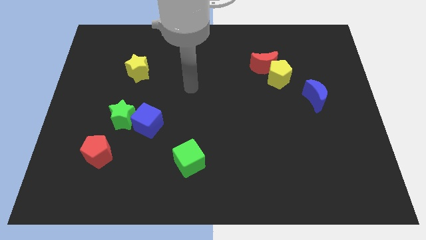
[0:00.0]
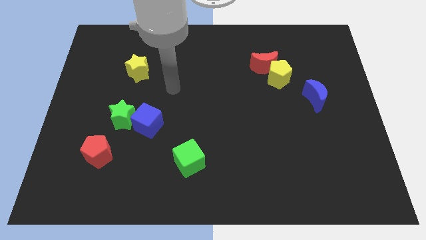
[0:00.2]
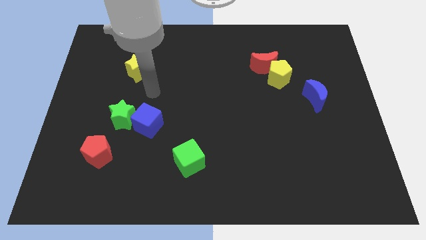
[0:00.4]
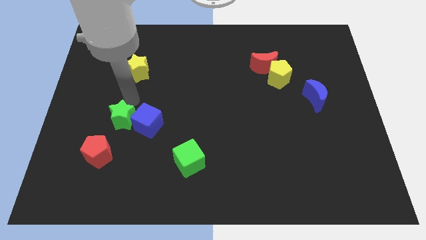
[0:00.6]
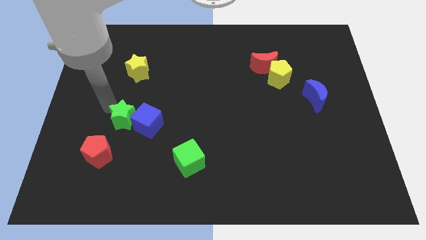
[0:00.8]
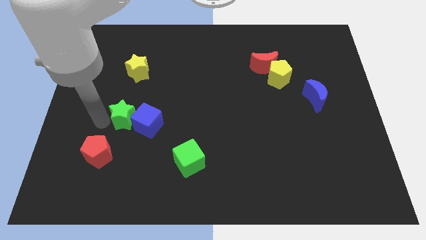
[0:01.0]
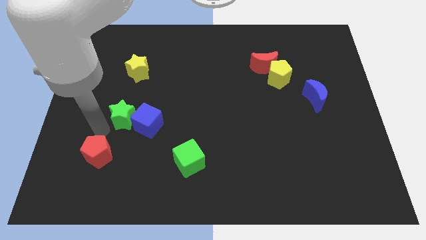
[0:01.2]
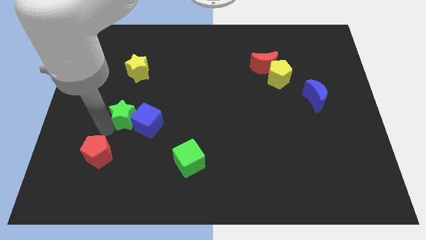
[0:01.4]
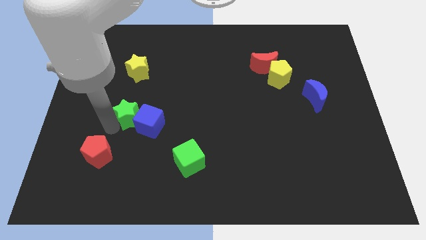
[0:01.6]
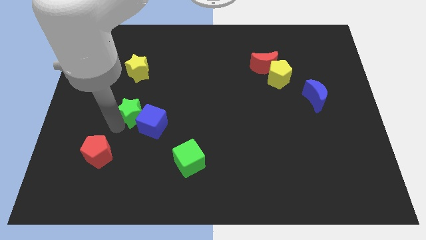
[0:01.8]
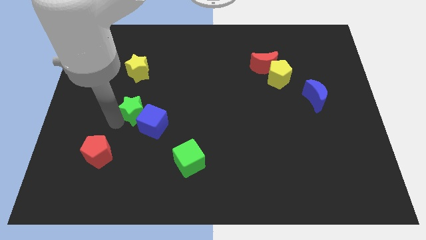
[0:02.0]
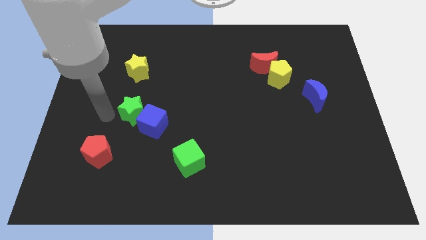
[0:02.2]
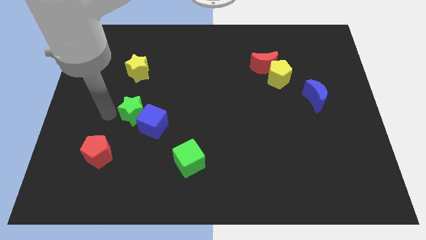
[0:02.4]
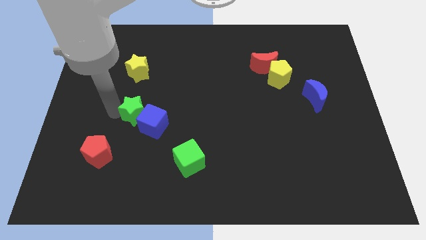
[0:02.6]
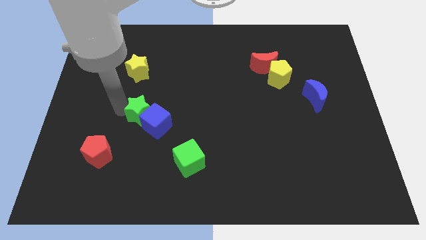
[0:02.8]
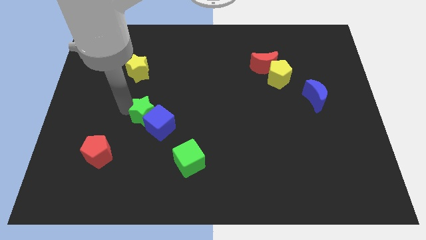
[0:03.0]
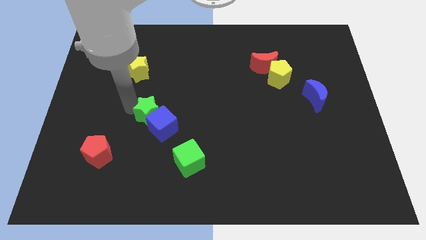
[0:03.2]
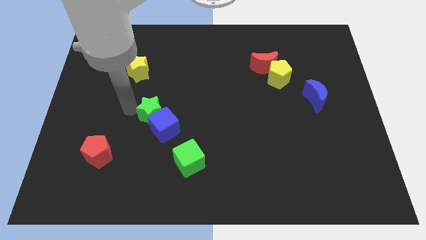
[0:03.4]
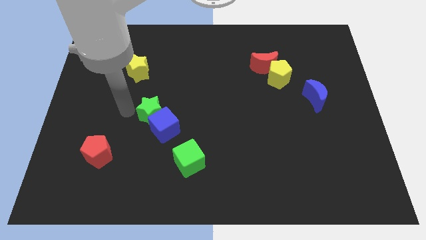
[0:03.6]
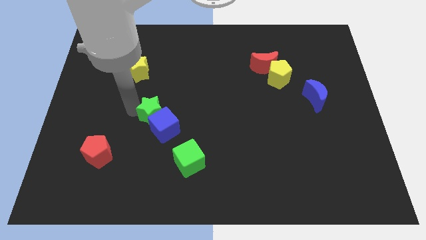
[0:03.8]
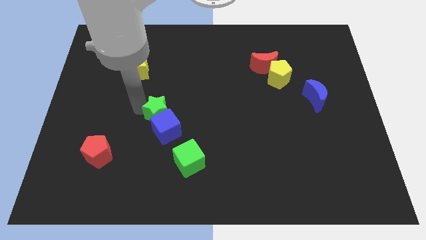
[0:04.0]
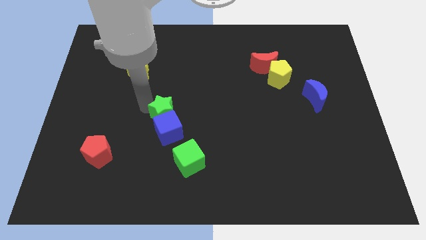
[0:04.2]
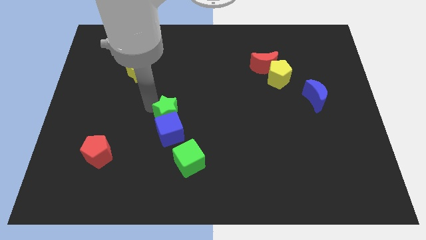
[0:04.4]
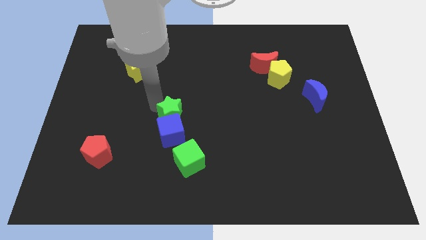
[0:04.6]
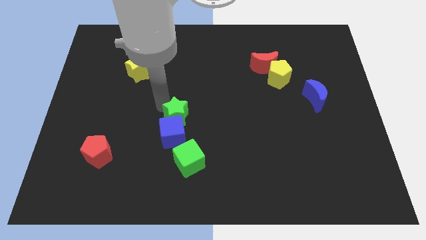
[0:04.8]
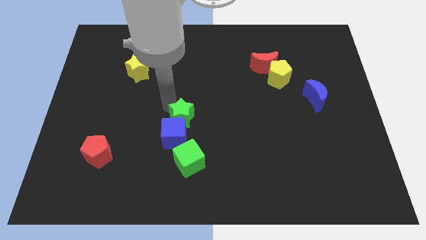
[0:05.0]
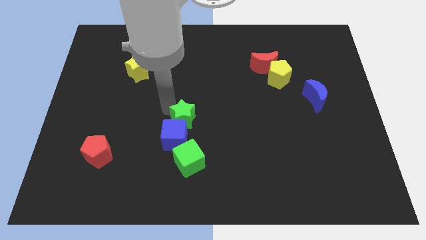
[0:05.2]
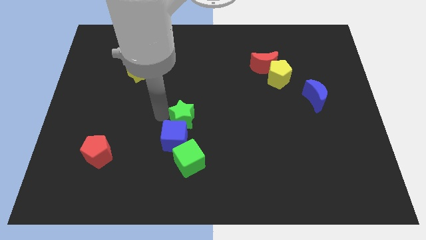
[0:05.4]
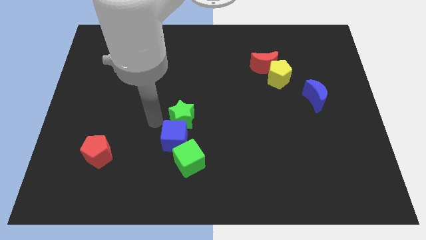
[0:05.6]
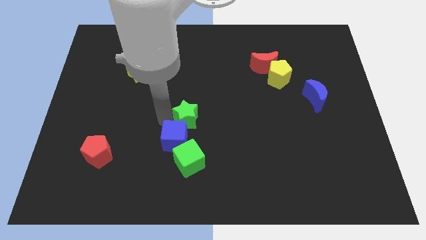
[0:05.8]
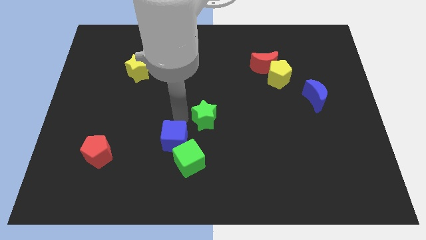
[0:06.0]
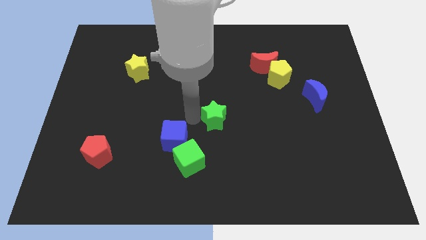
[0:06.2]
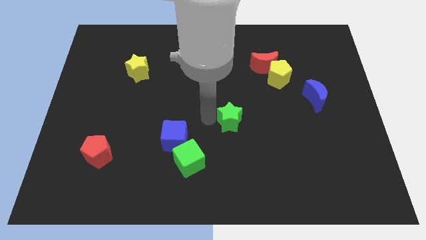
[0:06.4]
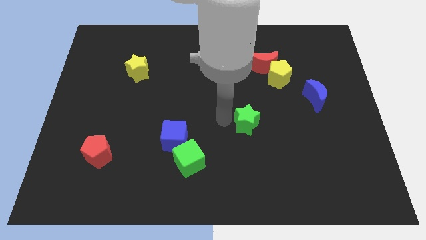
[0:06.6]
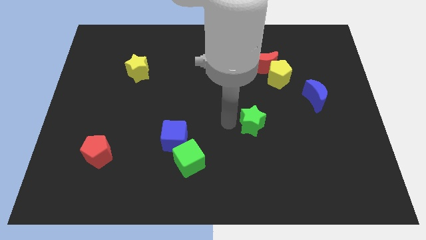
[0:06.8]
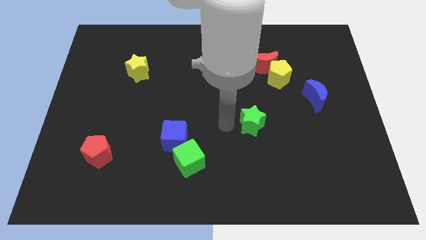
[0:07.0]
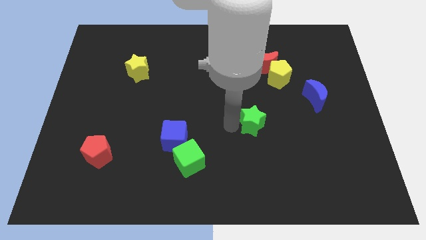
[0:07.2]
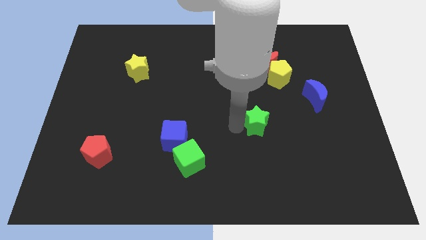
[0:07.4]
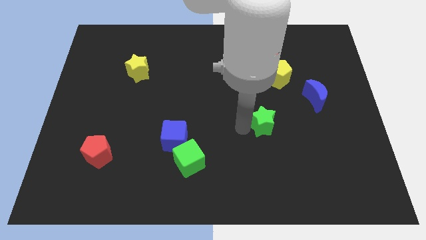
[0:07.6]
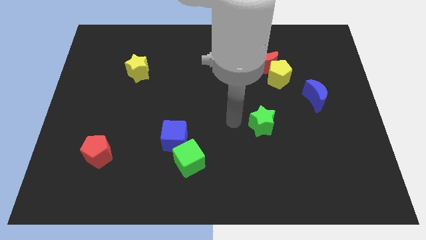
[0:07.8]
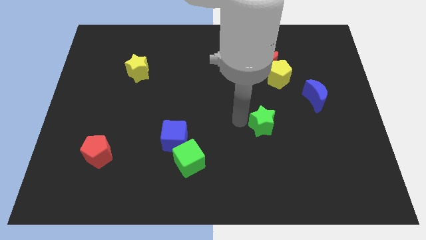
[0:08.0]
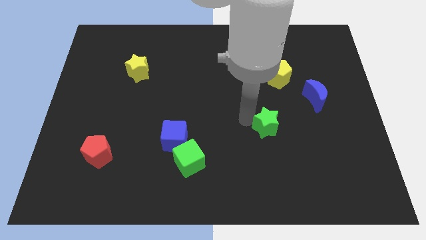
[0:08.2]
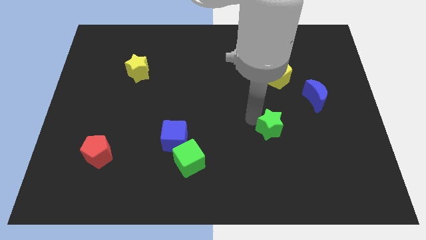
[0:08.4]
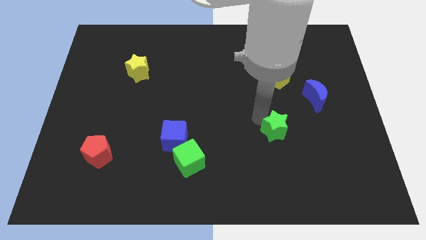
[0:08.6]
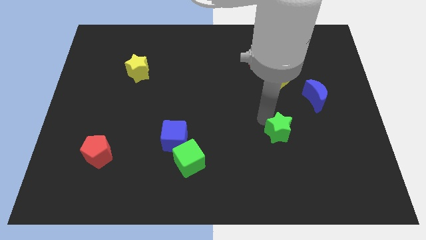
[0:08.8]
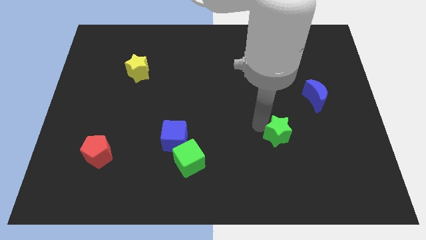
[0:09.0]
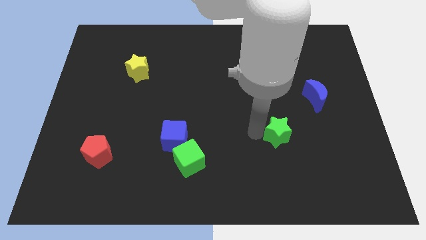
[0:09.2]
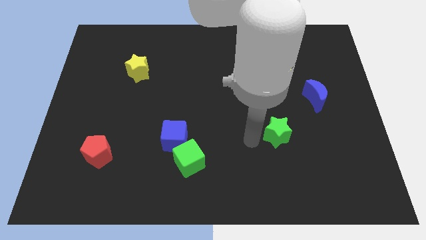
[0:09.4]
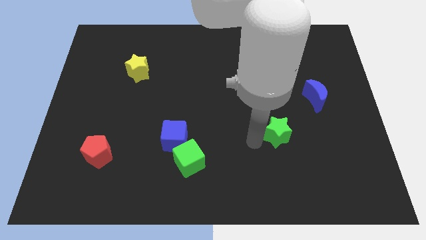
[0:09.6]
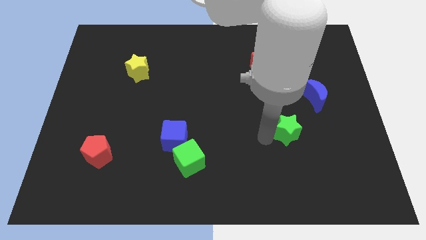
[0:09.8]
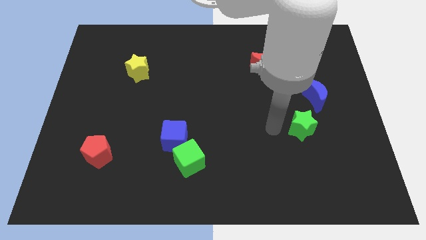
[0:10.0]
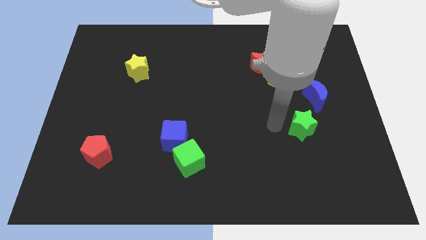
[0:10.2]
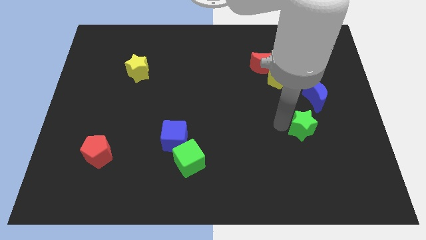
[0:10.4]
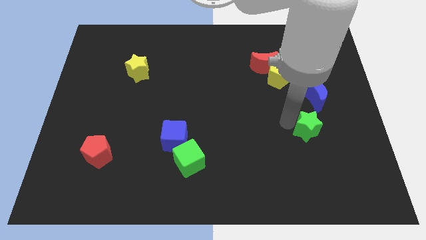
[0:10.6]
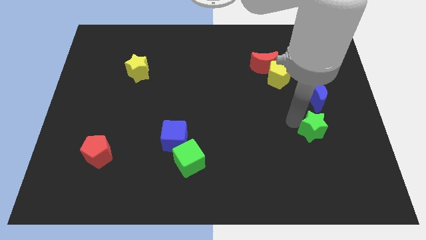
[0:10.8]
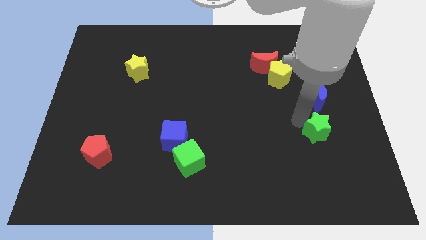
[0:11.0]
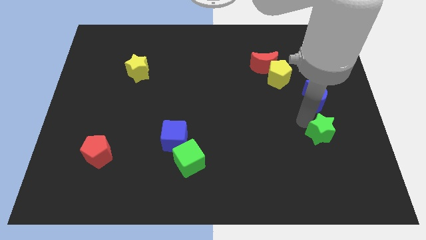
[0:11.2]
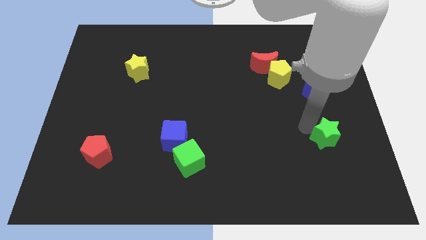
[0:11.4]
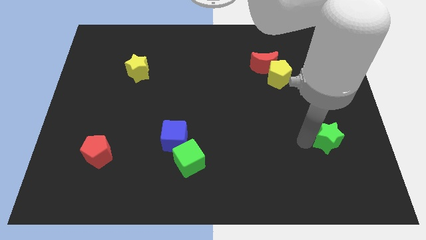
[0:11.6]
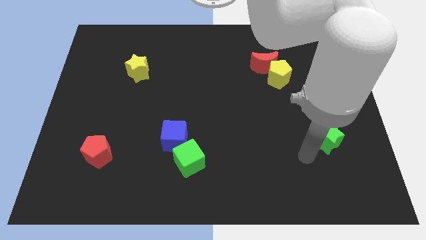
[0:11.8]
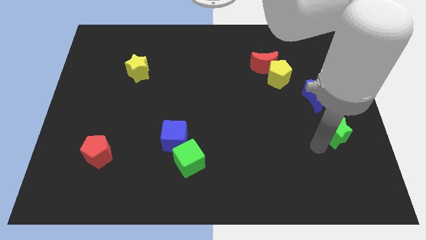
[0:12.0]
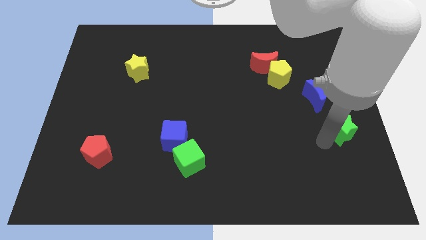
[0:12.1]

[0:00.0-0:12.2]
push the green star to the right side
